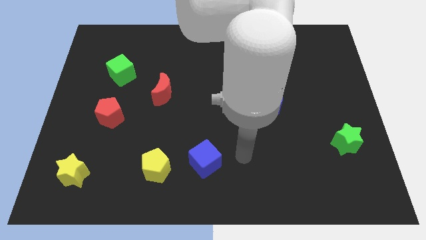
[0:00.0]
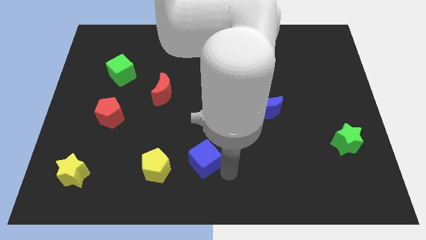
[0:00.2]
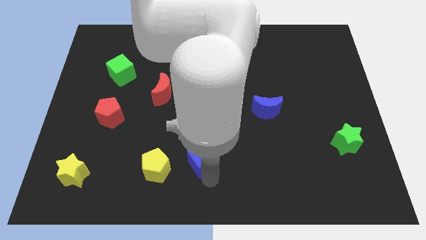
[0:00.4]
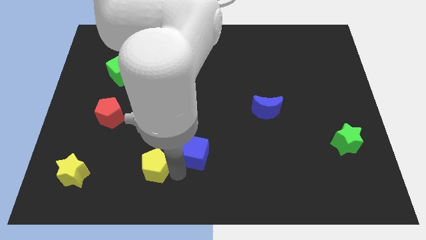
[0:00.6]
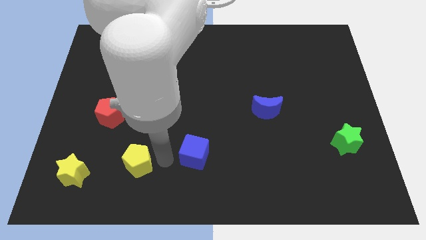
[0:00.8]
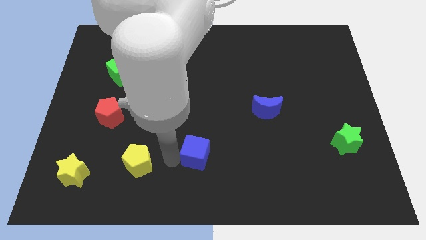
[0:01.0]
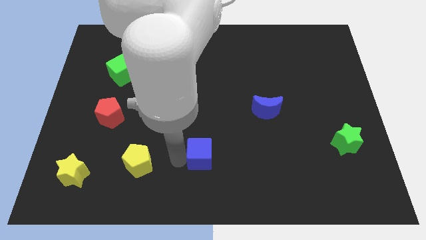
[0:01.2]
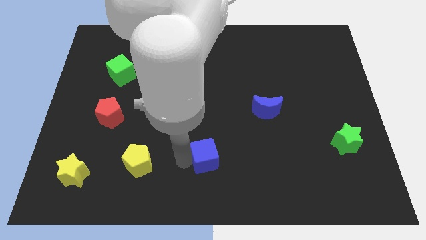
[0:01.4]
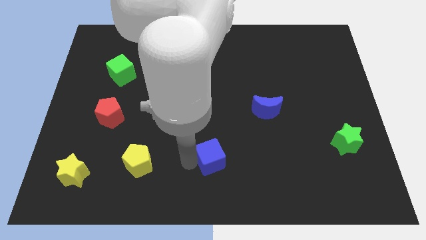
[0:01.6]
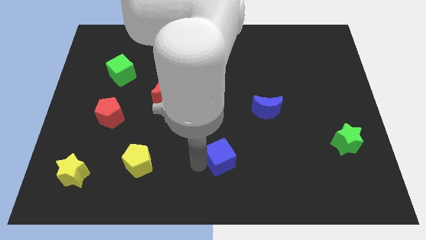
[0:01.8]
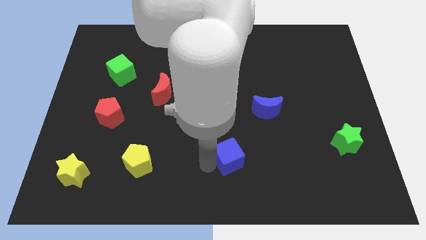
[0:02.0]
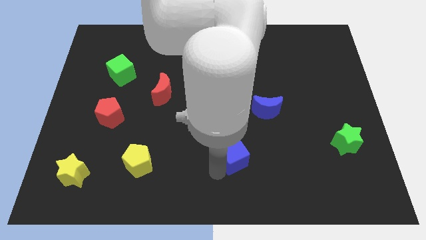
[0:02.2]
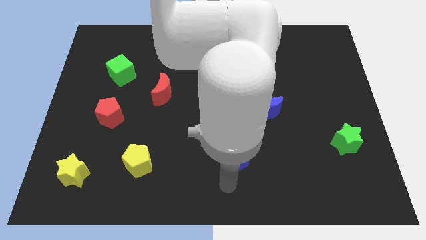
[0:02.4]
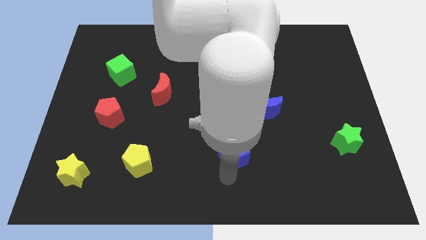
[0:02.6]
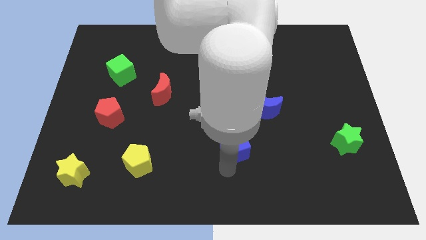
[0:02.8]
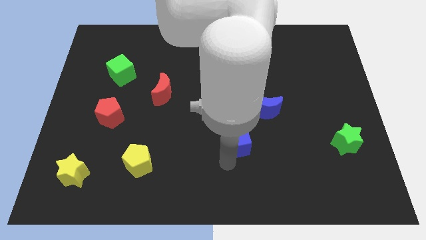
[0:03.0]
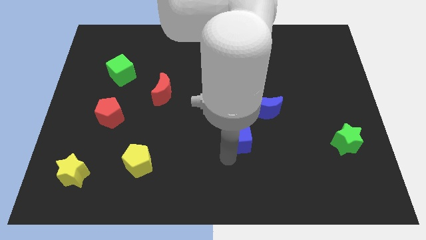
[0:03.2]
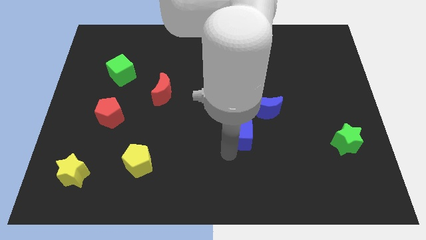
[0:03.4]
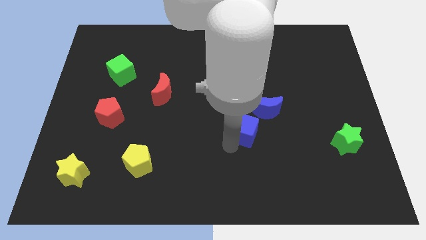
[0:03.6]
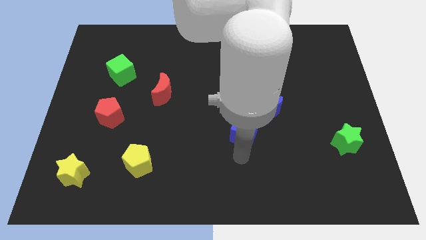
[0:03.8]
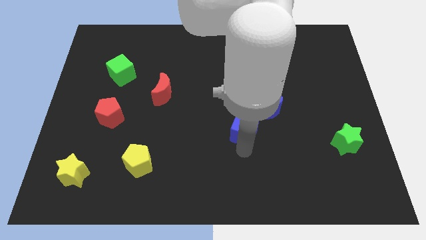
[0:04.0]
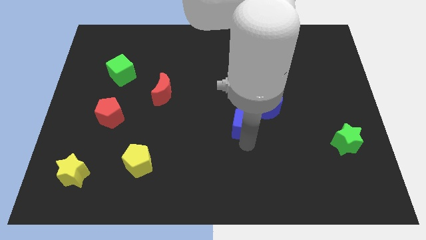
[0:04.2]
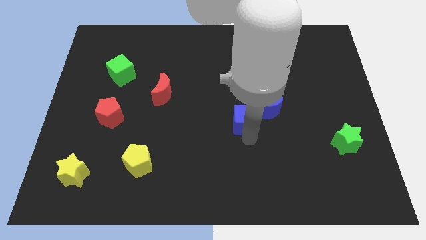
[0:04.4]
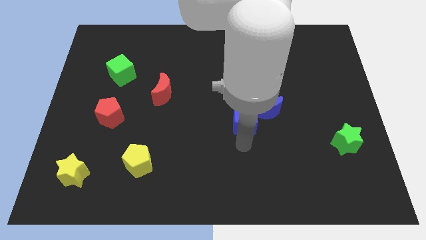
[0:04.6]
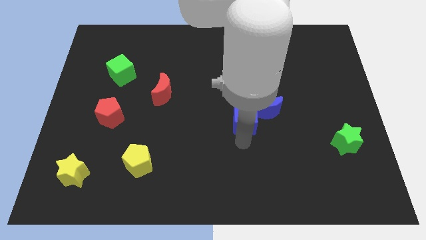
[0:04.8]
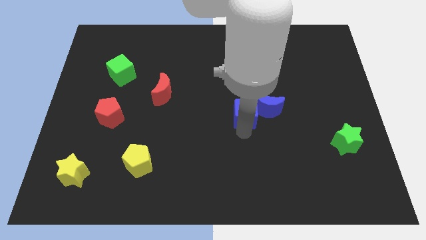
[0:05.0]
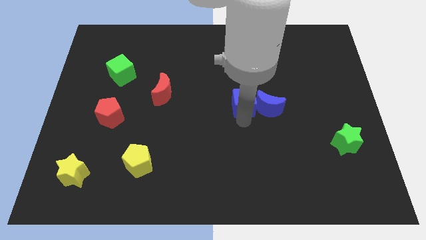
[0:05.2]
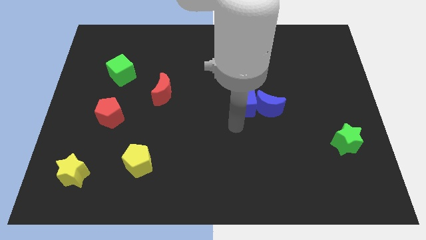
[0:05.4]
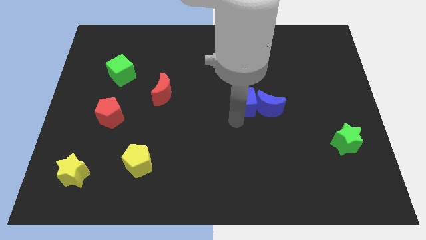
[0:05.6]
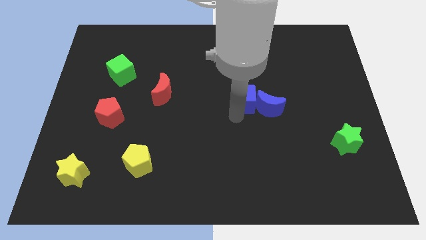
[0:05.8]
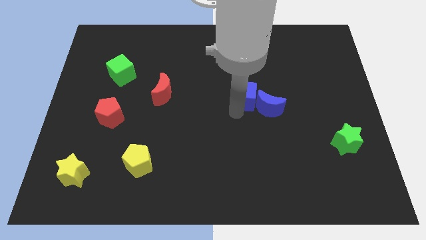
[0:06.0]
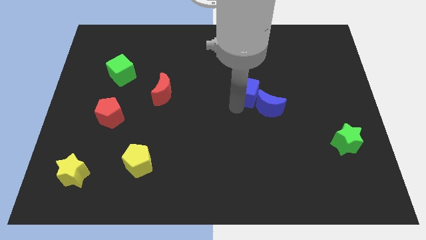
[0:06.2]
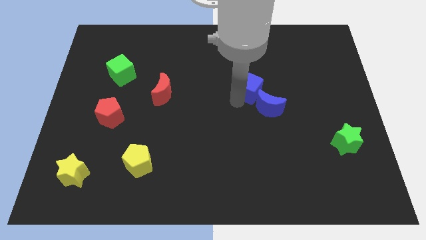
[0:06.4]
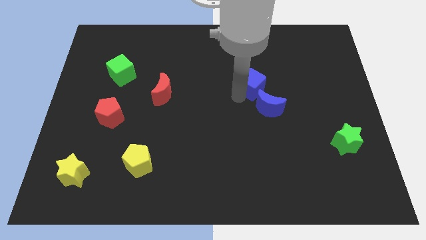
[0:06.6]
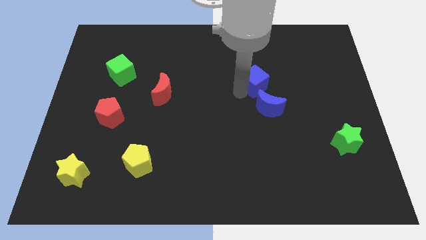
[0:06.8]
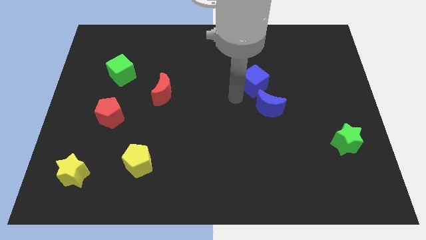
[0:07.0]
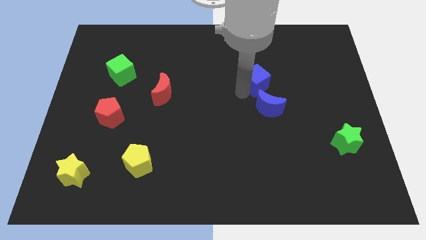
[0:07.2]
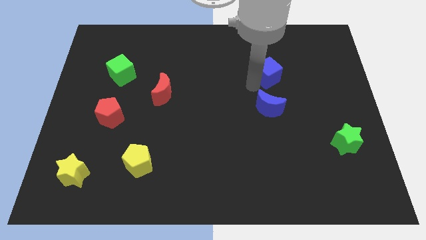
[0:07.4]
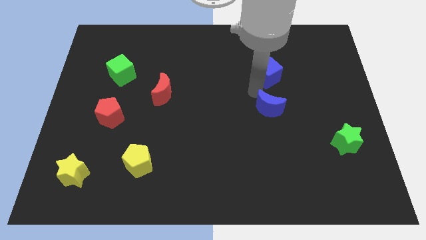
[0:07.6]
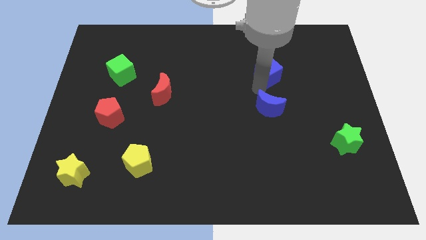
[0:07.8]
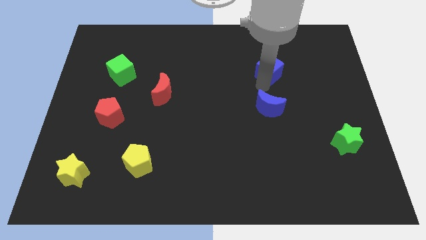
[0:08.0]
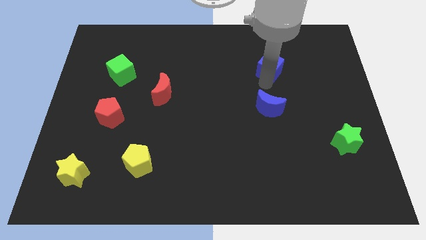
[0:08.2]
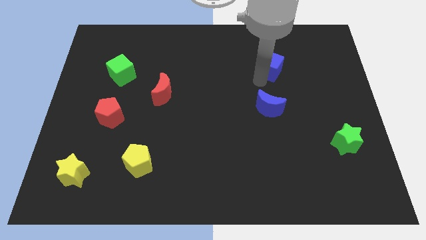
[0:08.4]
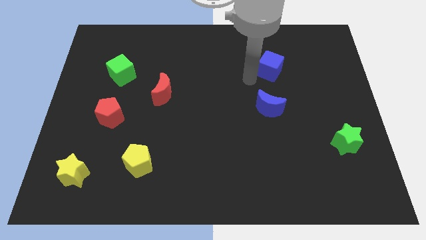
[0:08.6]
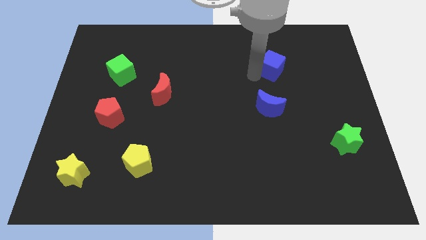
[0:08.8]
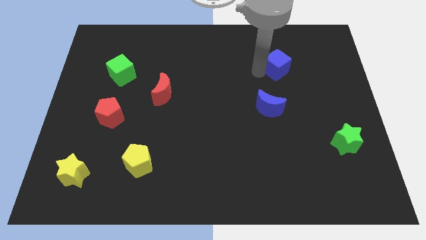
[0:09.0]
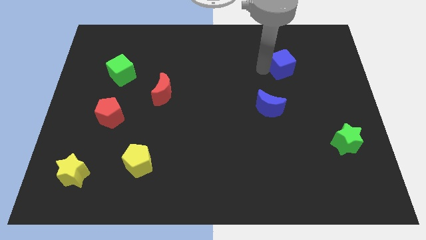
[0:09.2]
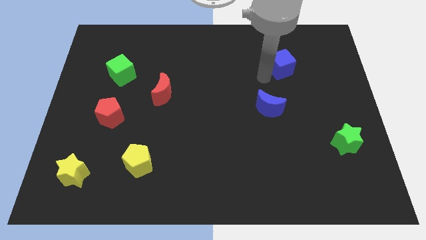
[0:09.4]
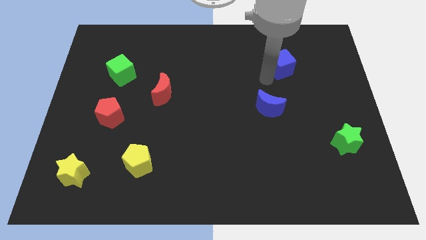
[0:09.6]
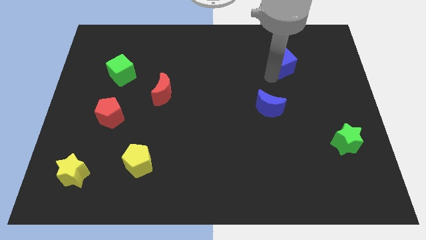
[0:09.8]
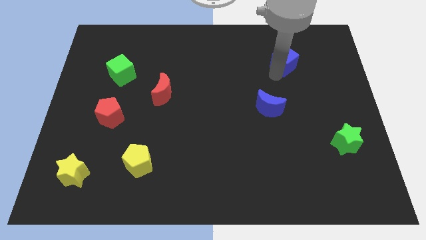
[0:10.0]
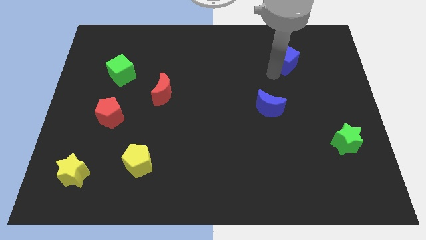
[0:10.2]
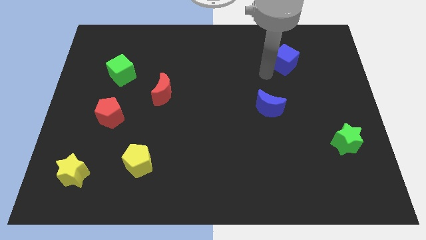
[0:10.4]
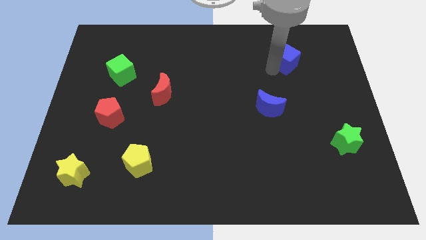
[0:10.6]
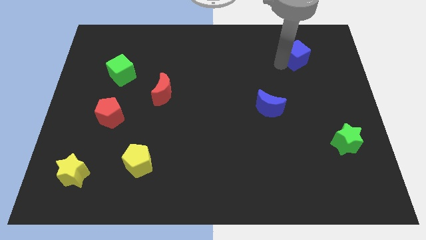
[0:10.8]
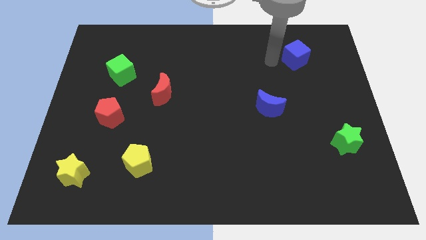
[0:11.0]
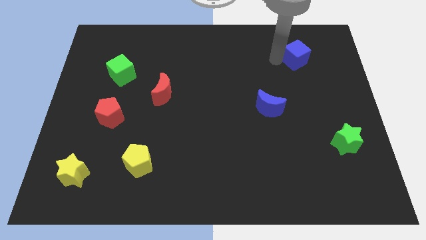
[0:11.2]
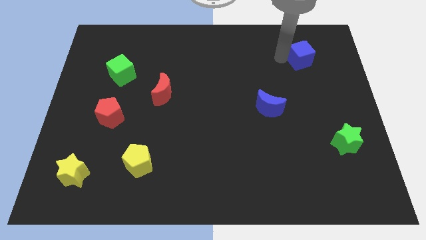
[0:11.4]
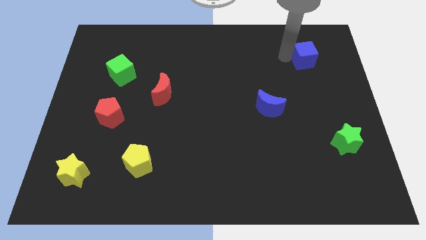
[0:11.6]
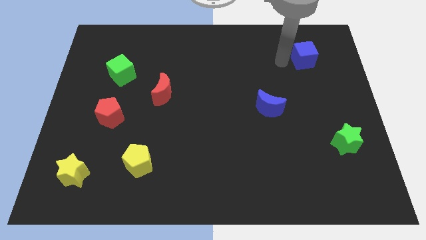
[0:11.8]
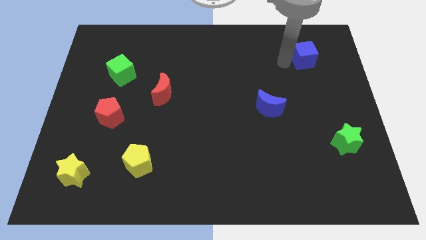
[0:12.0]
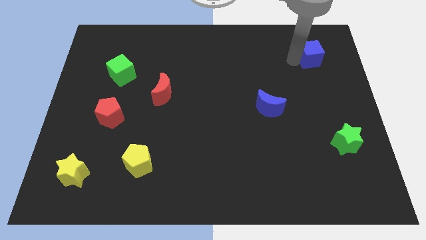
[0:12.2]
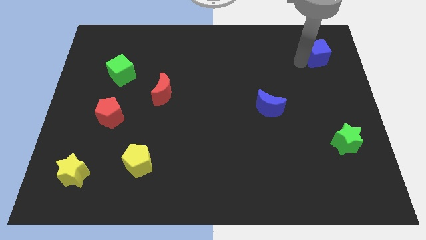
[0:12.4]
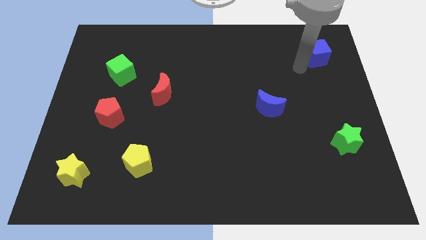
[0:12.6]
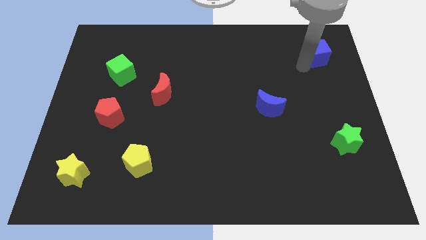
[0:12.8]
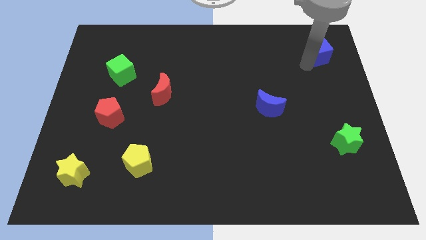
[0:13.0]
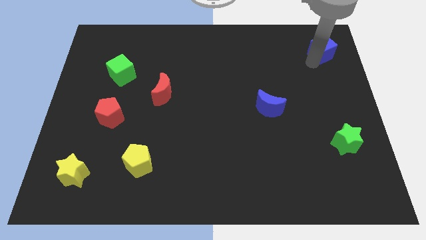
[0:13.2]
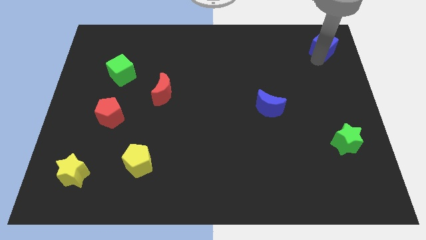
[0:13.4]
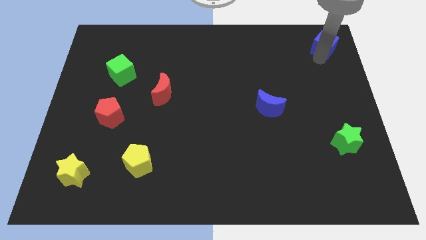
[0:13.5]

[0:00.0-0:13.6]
move the blue cube to the upper right corner
